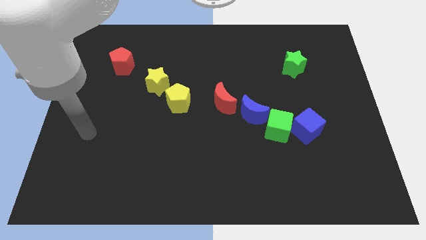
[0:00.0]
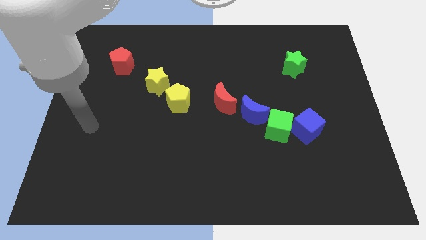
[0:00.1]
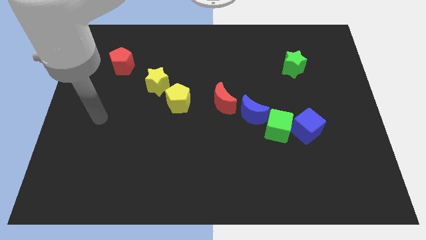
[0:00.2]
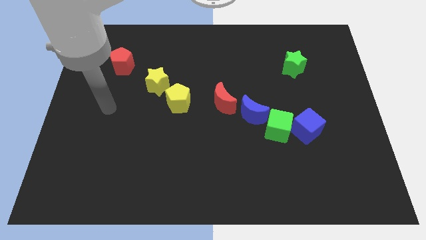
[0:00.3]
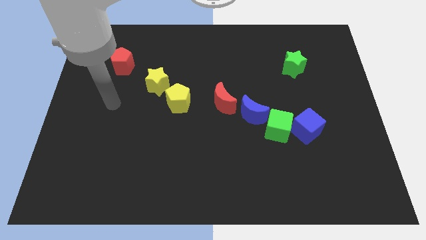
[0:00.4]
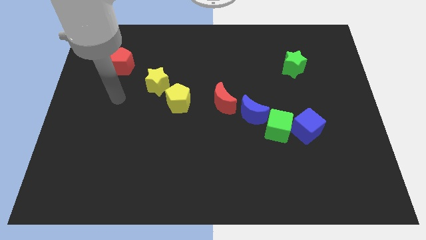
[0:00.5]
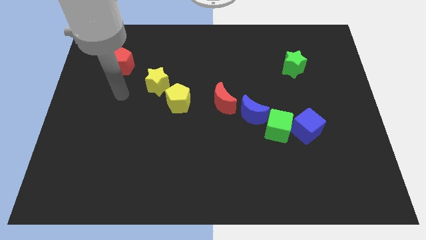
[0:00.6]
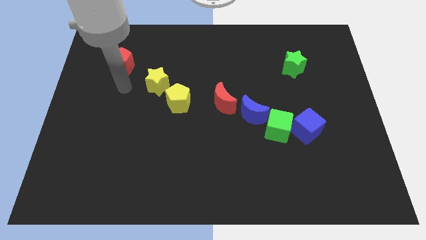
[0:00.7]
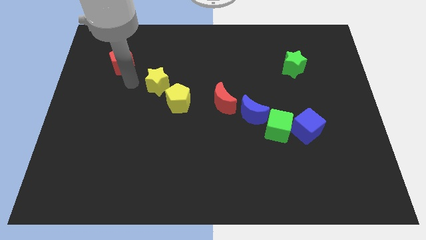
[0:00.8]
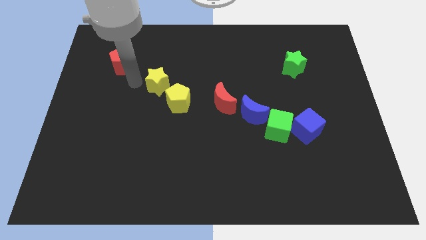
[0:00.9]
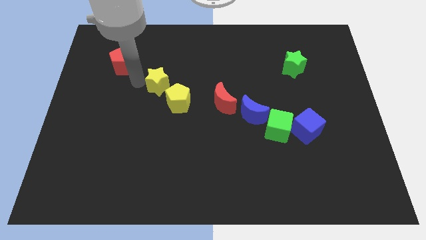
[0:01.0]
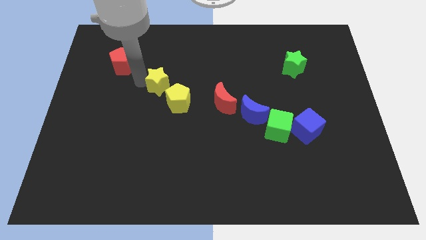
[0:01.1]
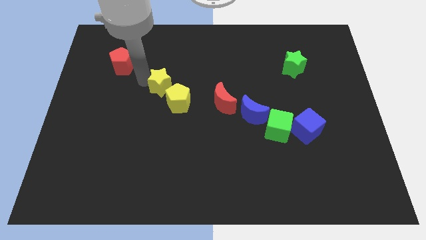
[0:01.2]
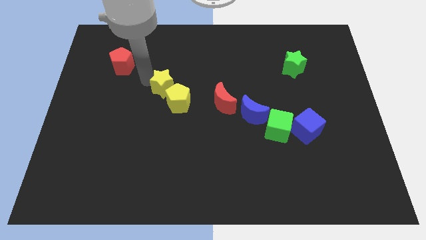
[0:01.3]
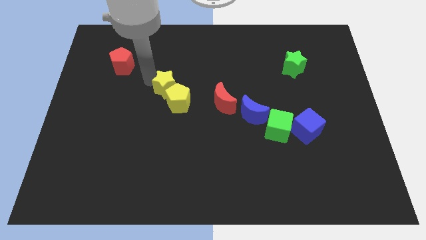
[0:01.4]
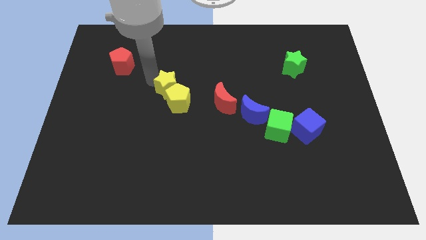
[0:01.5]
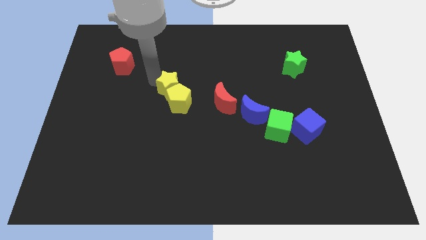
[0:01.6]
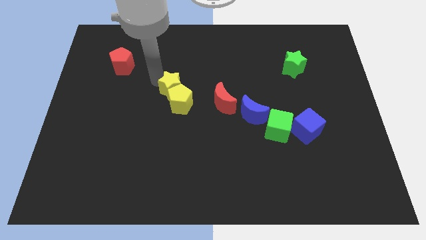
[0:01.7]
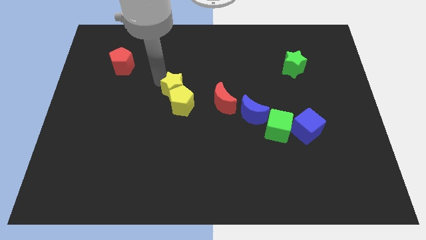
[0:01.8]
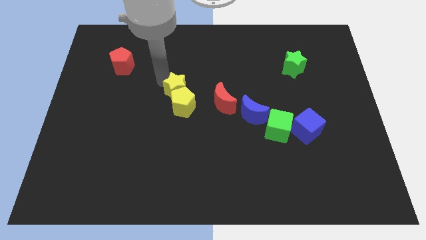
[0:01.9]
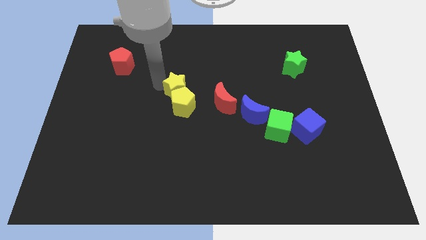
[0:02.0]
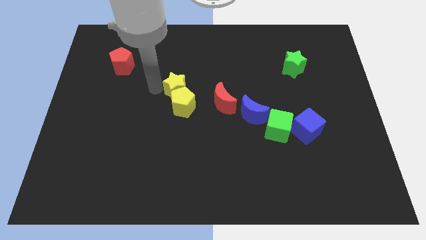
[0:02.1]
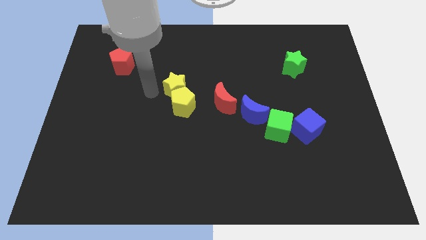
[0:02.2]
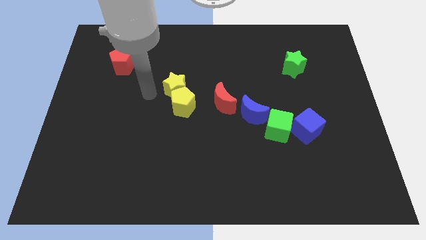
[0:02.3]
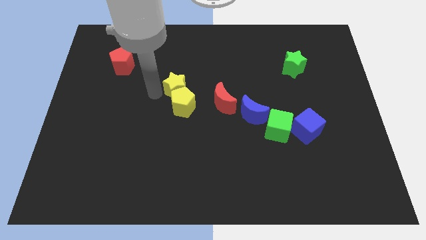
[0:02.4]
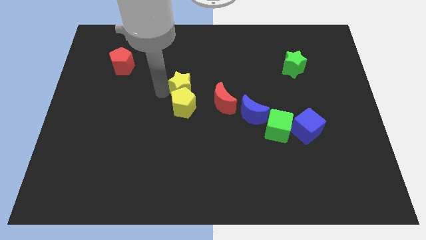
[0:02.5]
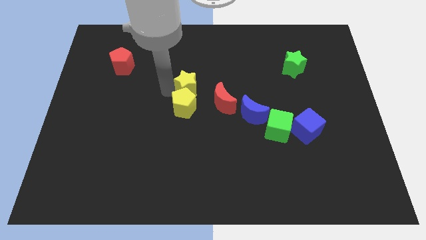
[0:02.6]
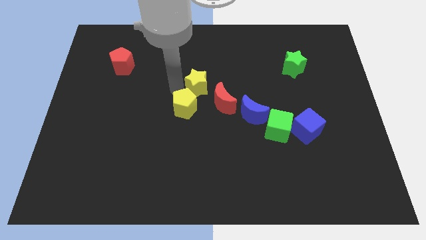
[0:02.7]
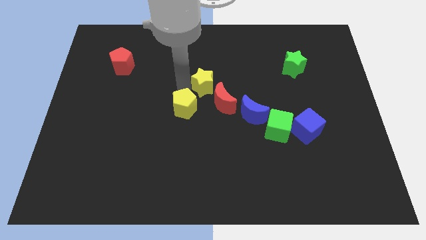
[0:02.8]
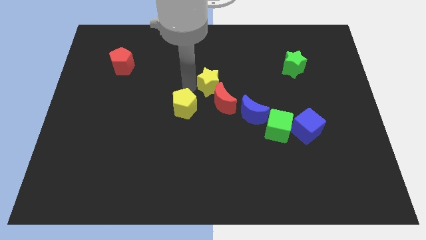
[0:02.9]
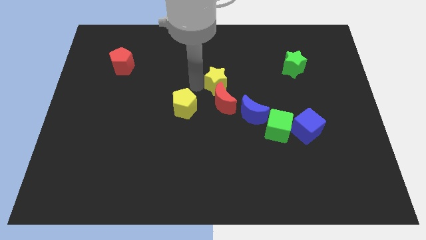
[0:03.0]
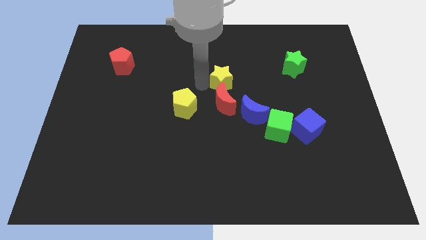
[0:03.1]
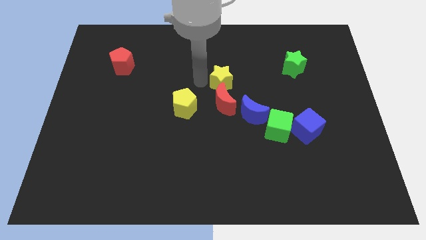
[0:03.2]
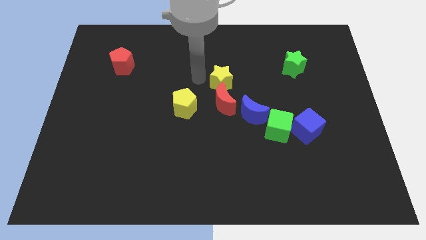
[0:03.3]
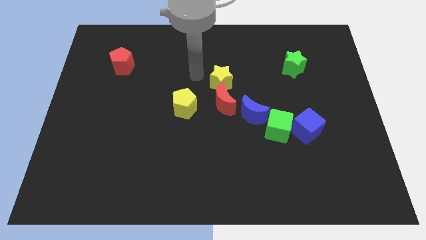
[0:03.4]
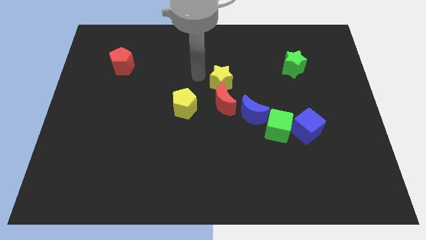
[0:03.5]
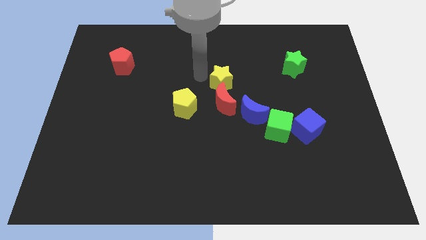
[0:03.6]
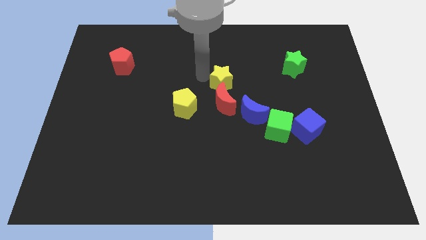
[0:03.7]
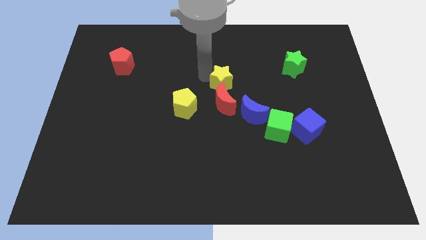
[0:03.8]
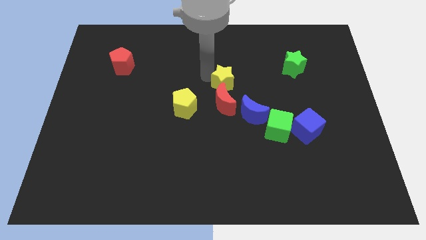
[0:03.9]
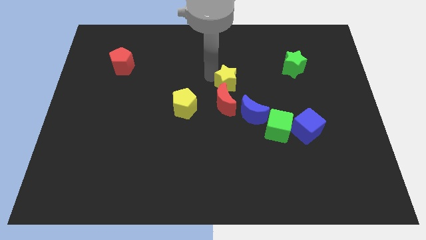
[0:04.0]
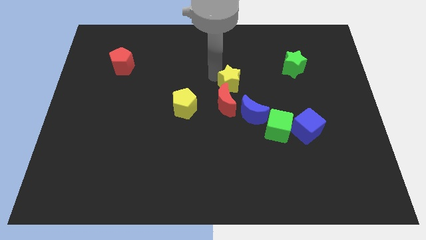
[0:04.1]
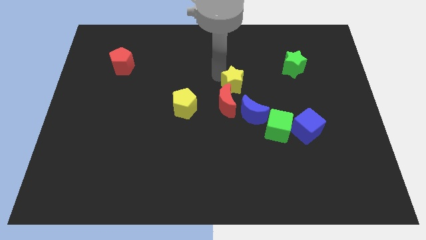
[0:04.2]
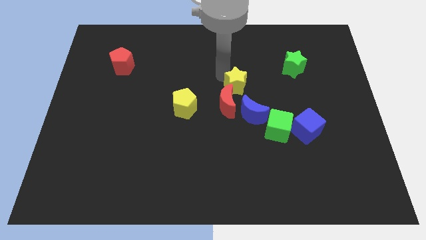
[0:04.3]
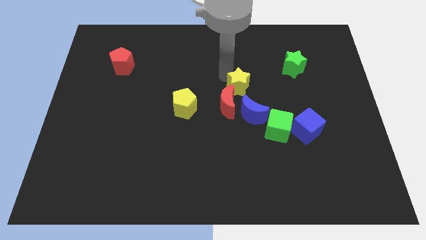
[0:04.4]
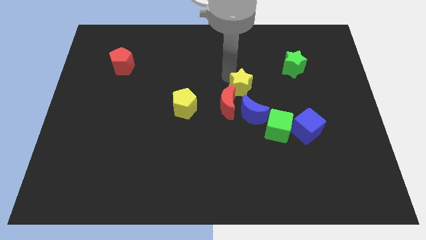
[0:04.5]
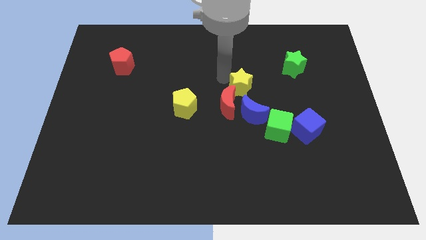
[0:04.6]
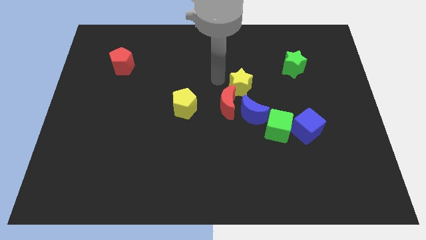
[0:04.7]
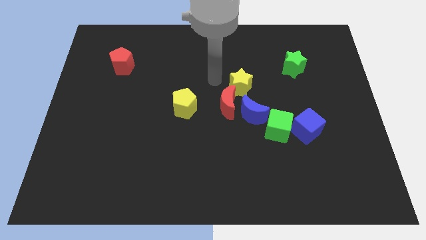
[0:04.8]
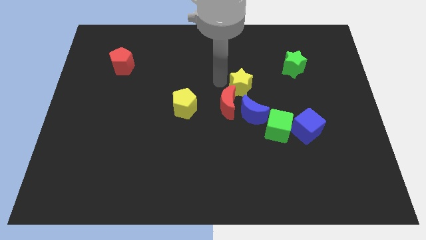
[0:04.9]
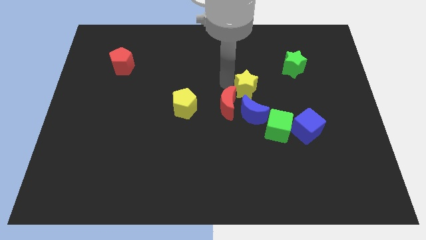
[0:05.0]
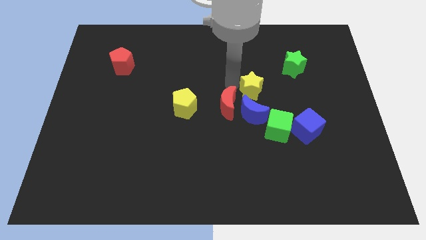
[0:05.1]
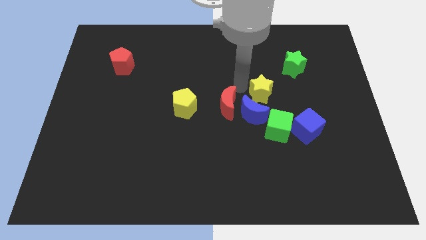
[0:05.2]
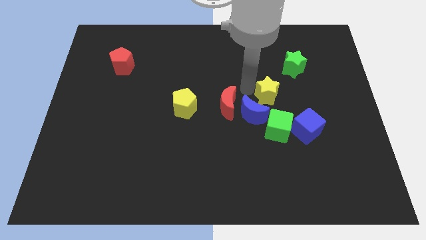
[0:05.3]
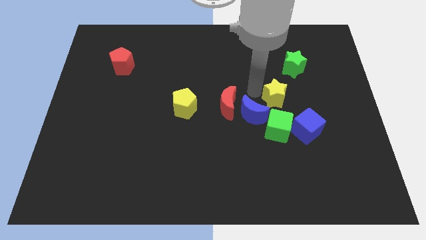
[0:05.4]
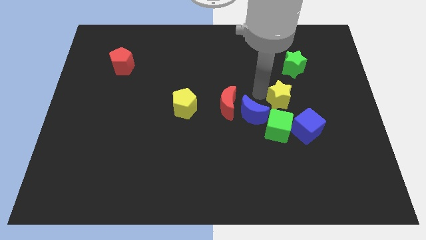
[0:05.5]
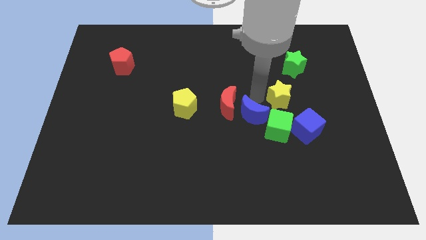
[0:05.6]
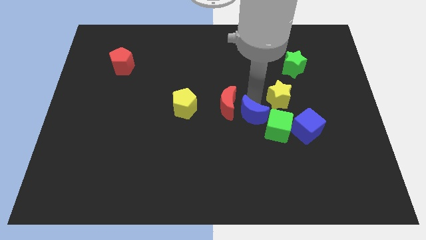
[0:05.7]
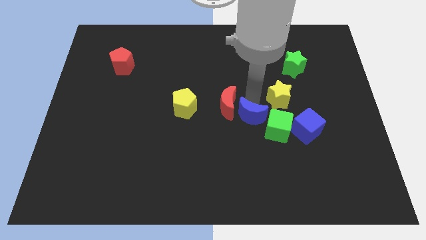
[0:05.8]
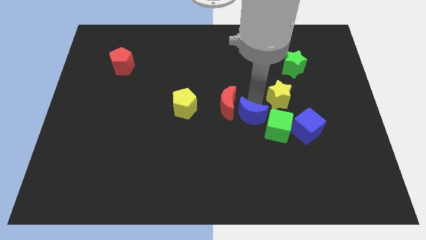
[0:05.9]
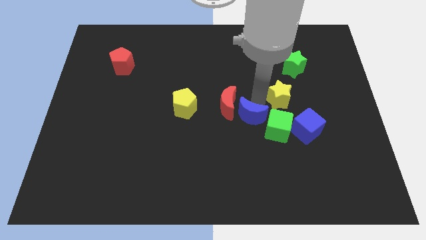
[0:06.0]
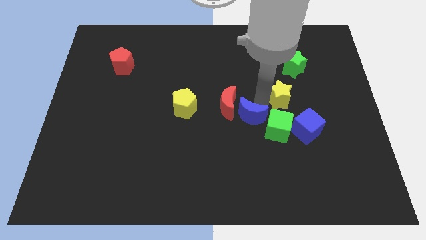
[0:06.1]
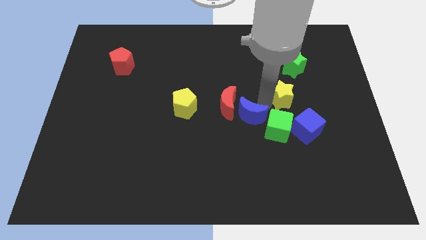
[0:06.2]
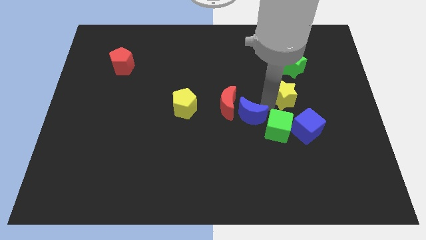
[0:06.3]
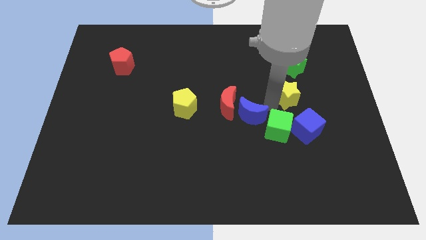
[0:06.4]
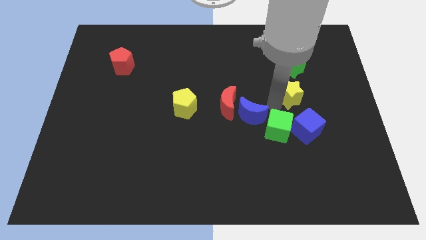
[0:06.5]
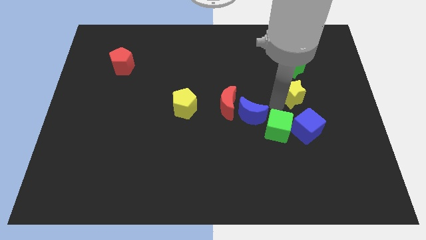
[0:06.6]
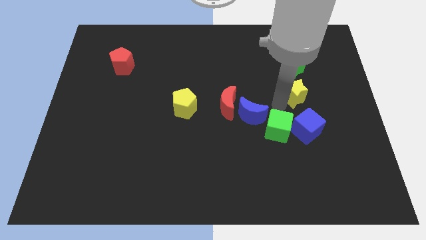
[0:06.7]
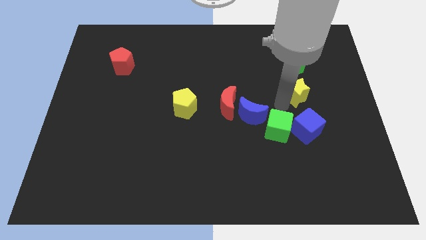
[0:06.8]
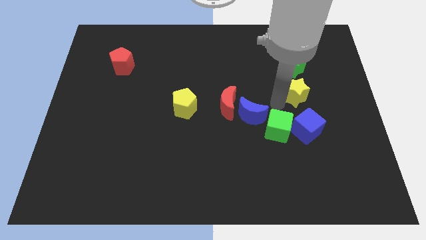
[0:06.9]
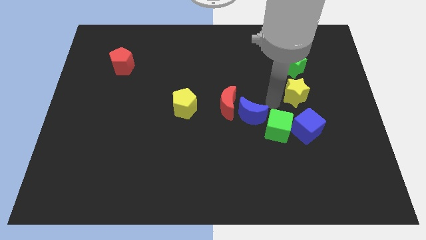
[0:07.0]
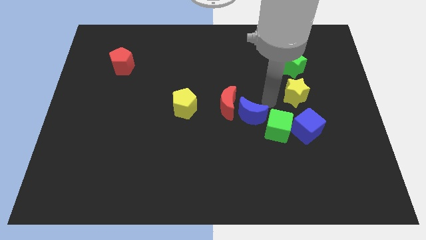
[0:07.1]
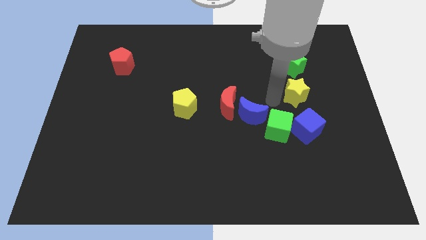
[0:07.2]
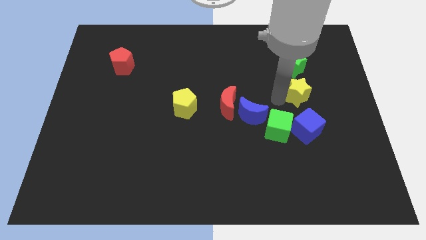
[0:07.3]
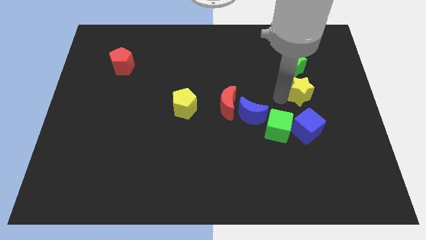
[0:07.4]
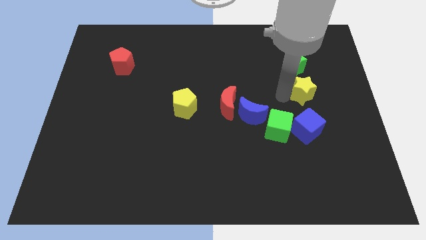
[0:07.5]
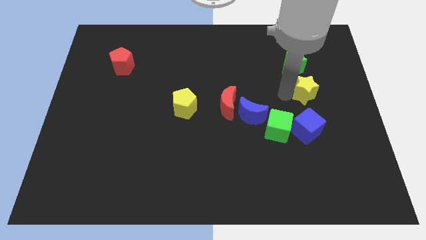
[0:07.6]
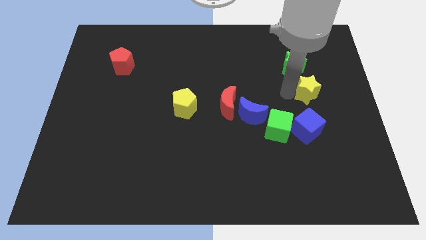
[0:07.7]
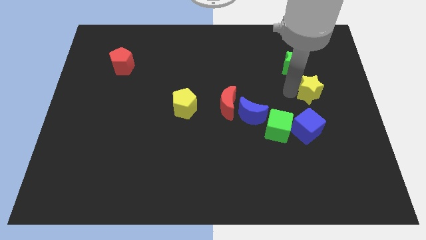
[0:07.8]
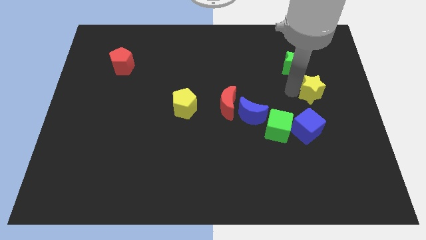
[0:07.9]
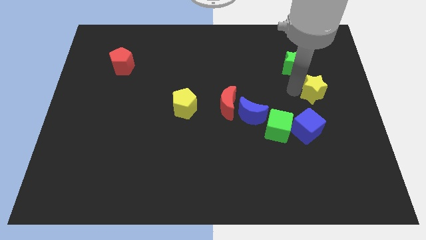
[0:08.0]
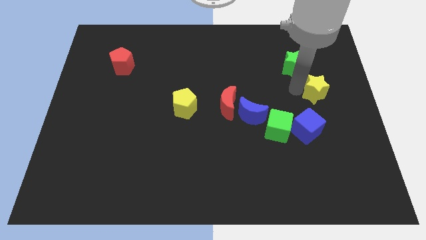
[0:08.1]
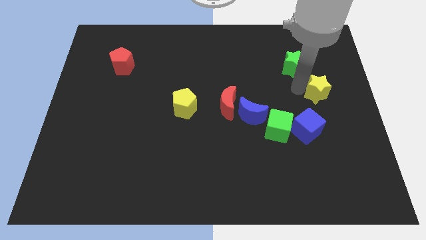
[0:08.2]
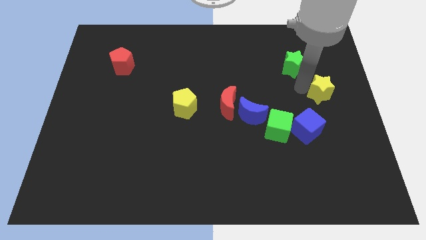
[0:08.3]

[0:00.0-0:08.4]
slide the yellow star to the right side
